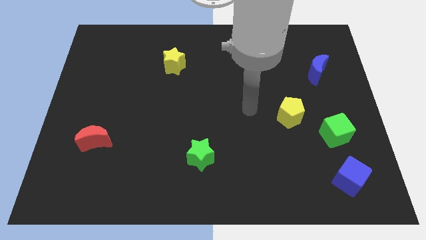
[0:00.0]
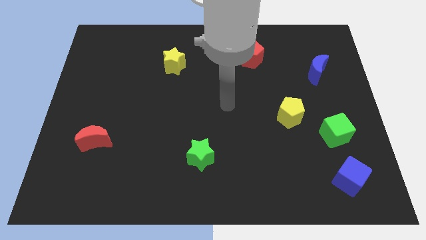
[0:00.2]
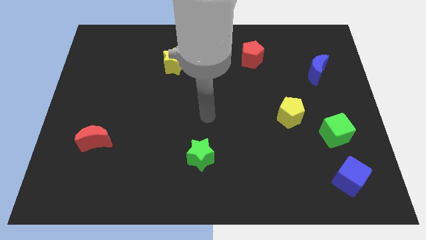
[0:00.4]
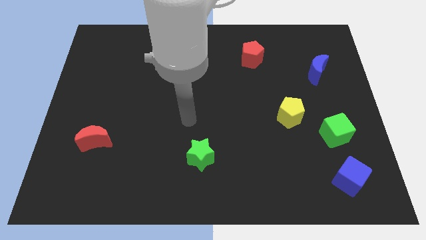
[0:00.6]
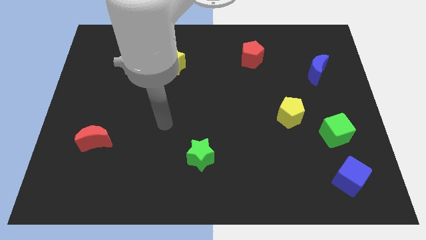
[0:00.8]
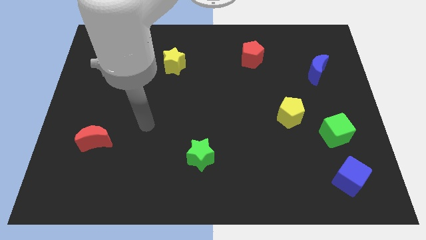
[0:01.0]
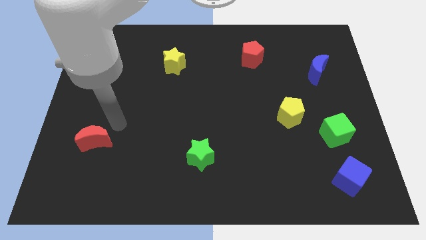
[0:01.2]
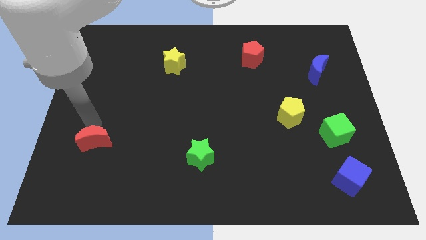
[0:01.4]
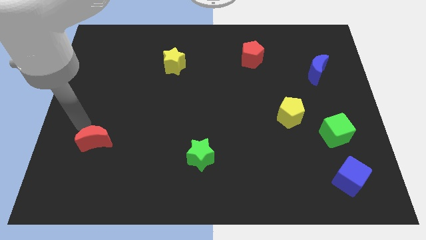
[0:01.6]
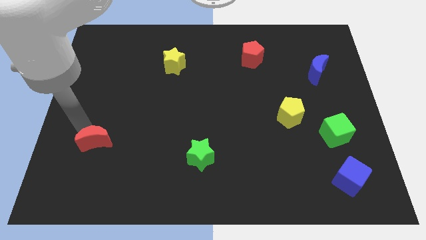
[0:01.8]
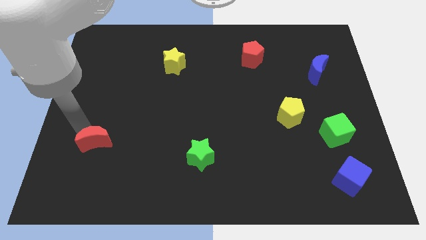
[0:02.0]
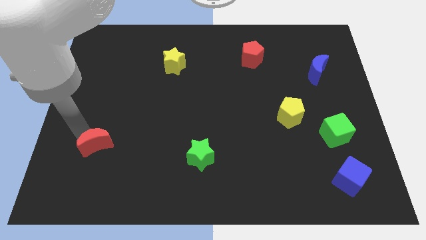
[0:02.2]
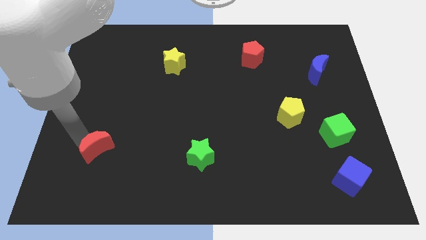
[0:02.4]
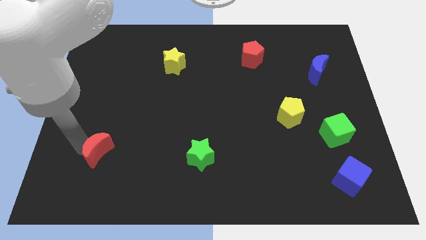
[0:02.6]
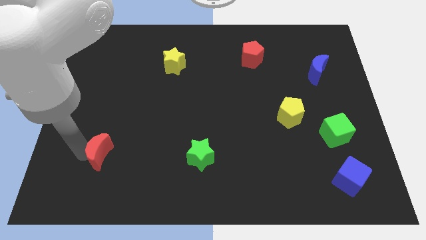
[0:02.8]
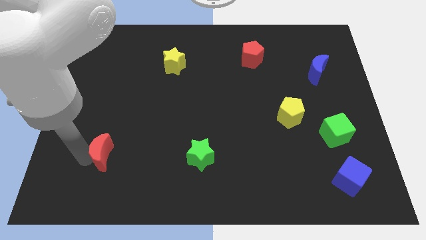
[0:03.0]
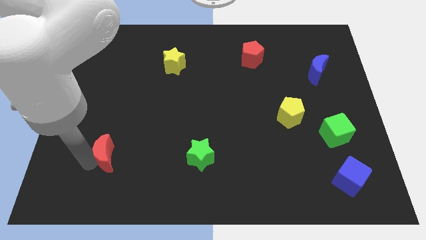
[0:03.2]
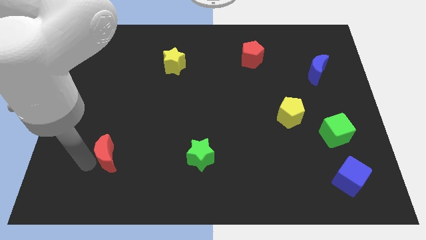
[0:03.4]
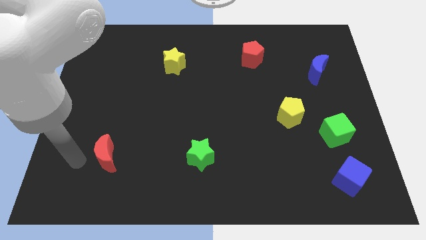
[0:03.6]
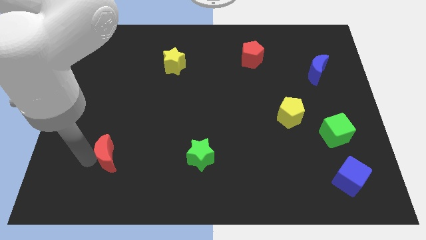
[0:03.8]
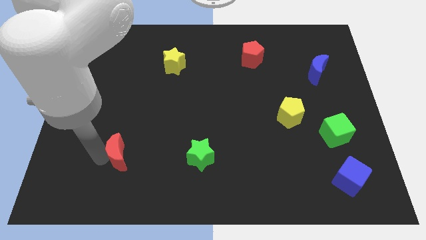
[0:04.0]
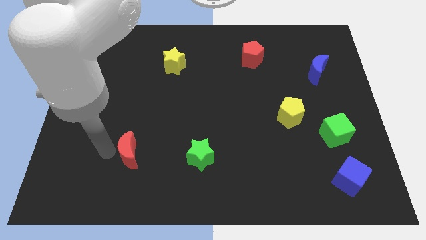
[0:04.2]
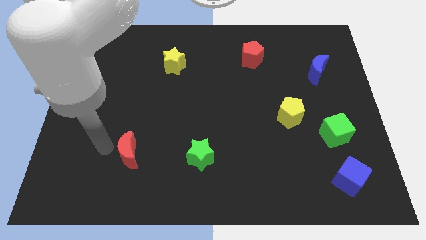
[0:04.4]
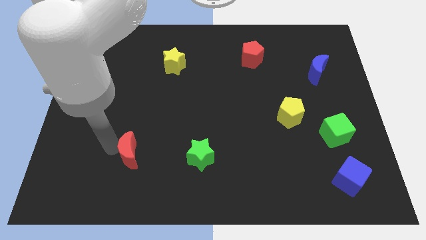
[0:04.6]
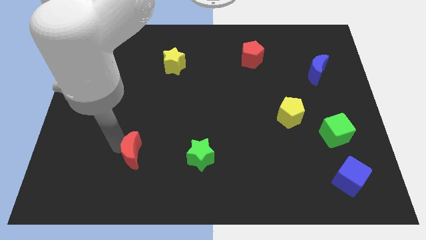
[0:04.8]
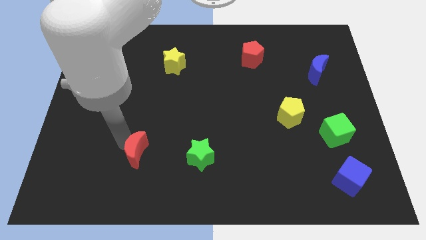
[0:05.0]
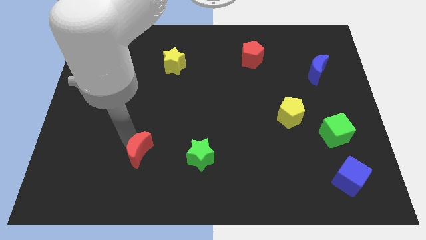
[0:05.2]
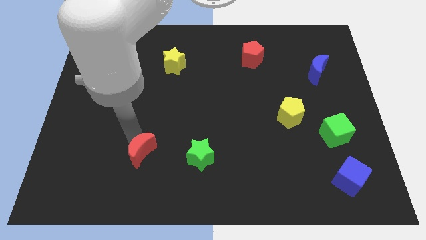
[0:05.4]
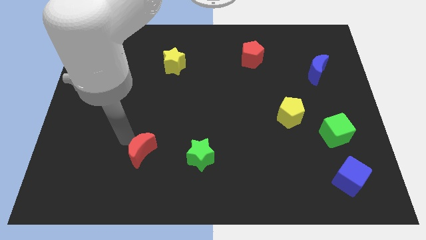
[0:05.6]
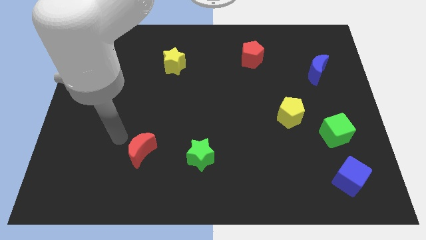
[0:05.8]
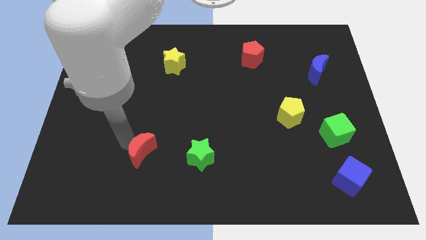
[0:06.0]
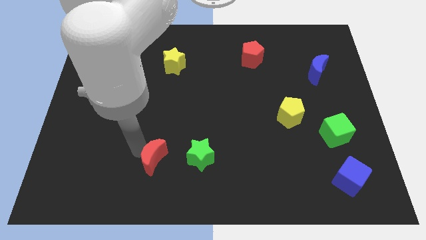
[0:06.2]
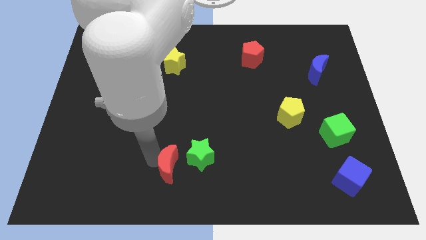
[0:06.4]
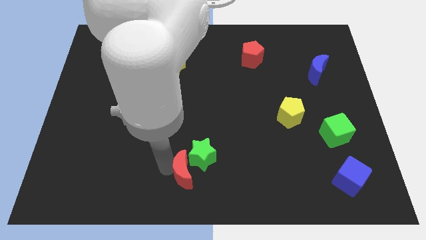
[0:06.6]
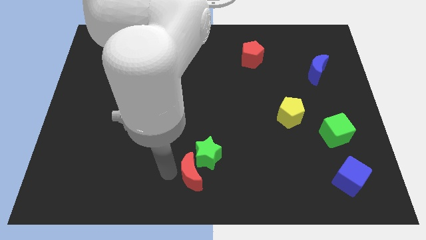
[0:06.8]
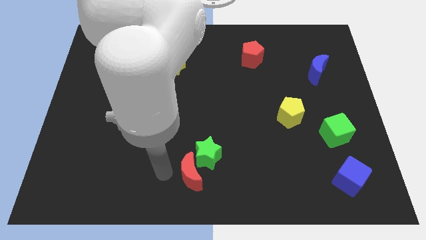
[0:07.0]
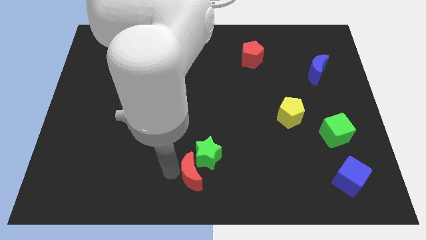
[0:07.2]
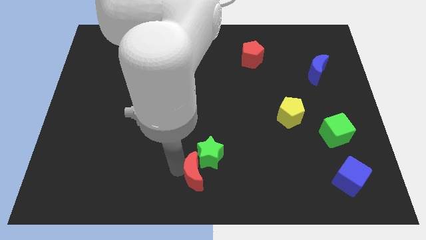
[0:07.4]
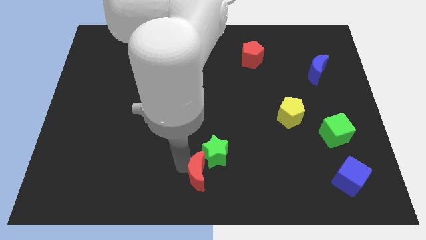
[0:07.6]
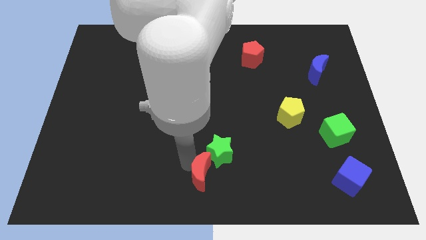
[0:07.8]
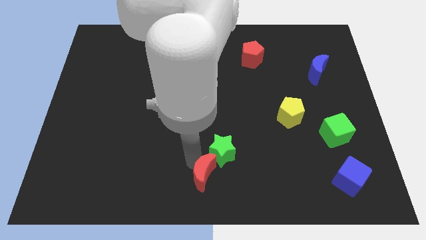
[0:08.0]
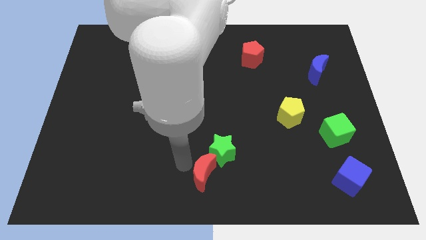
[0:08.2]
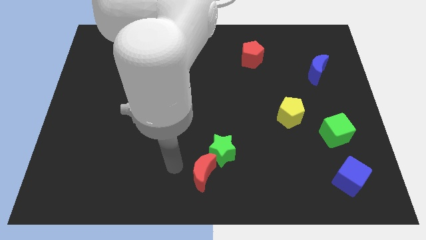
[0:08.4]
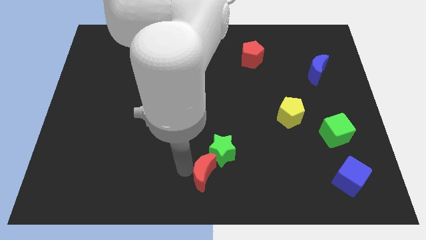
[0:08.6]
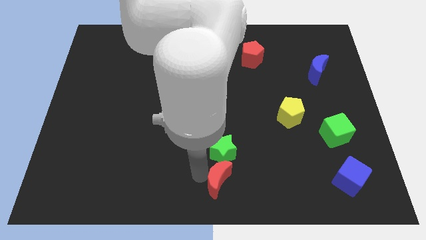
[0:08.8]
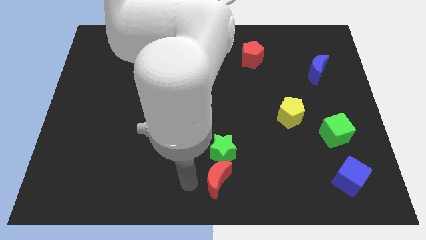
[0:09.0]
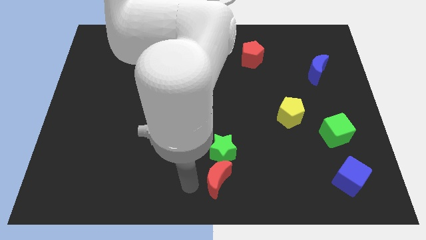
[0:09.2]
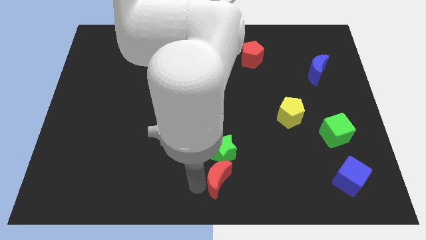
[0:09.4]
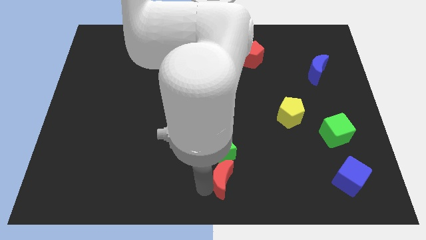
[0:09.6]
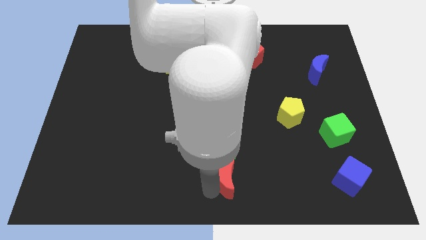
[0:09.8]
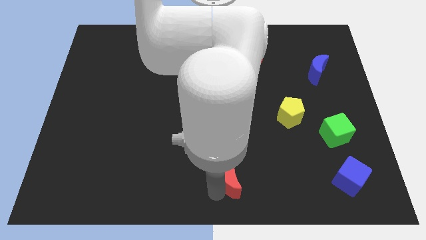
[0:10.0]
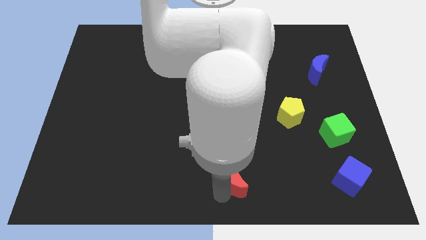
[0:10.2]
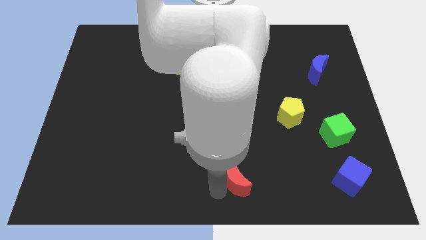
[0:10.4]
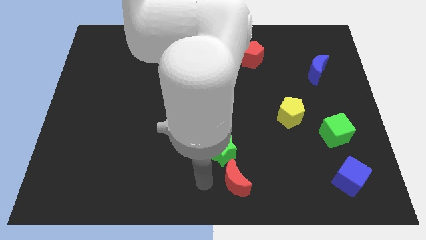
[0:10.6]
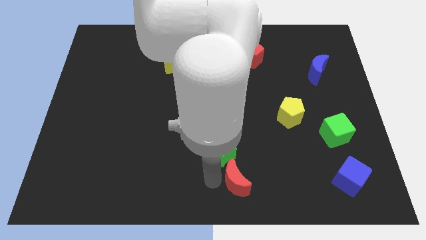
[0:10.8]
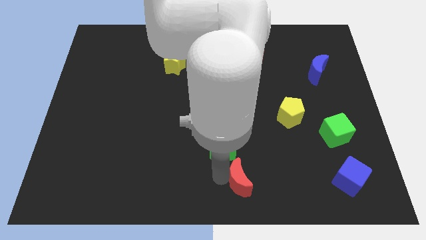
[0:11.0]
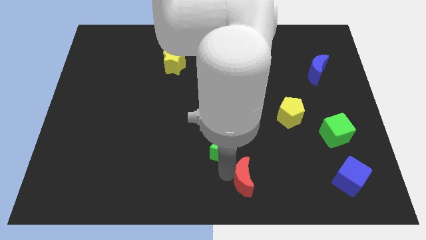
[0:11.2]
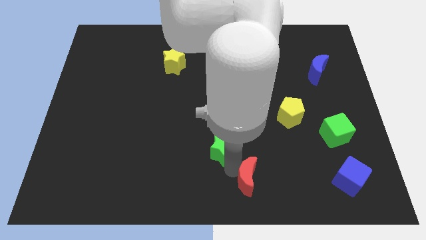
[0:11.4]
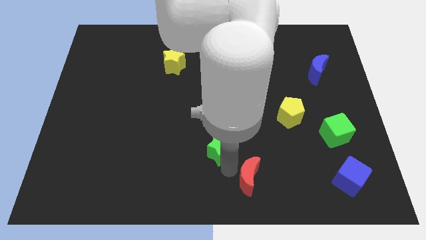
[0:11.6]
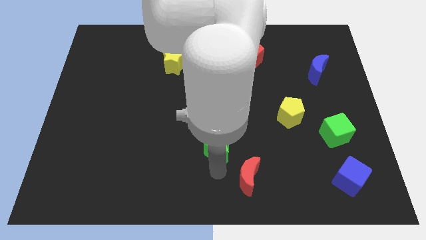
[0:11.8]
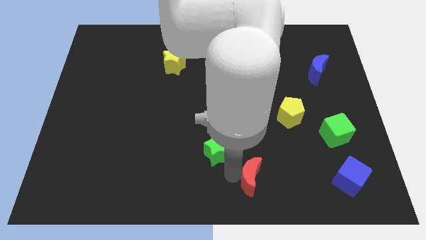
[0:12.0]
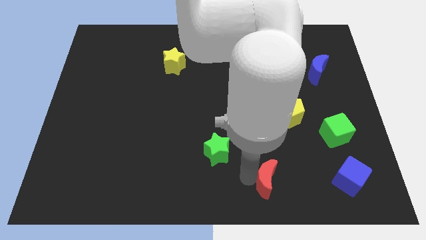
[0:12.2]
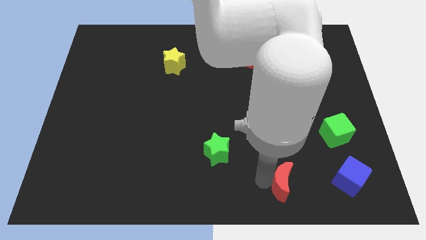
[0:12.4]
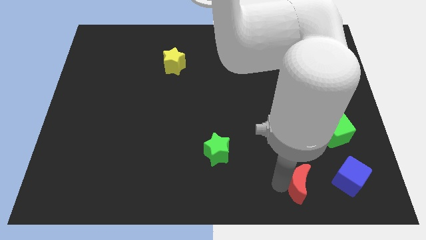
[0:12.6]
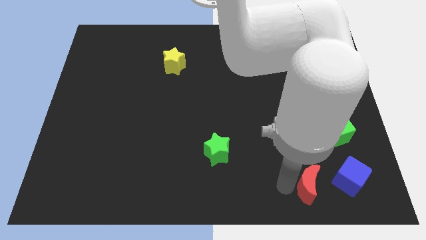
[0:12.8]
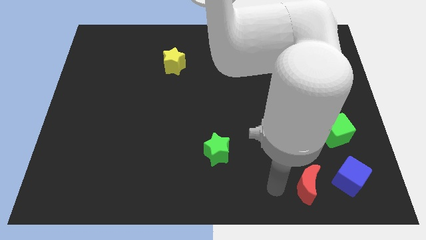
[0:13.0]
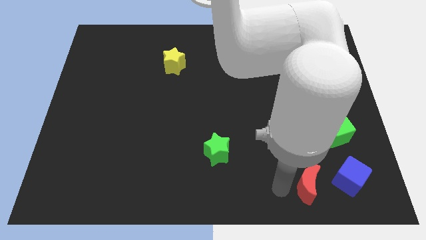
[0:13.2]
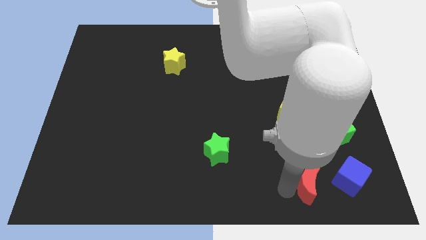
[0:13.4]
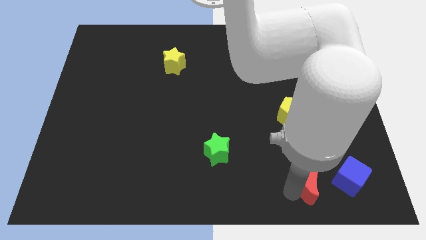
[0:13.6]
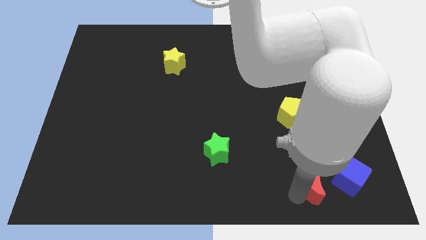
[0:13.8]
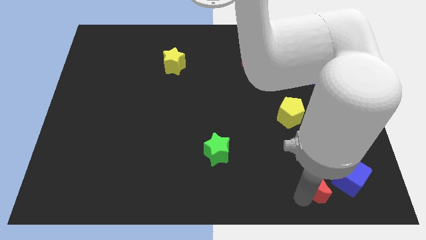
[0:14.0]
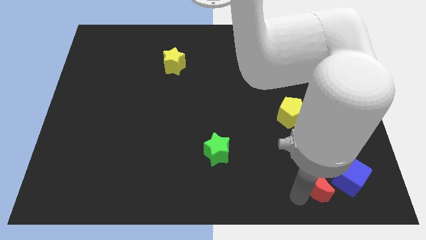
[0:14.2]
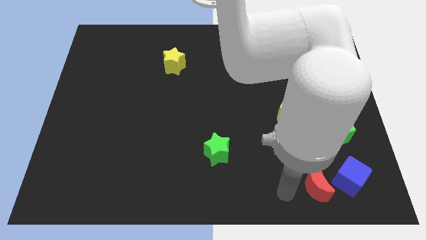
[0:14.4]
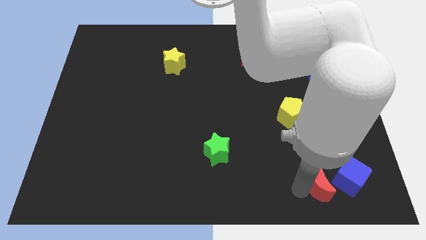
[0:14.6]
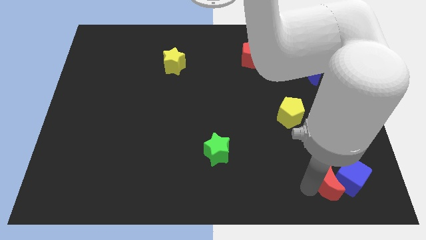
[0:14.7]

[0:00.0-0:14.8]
move the red moon close to the blue cube
